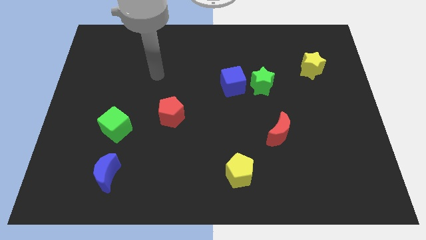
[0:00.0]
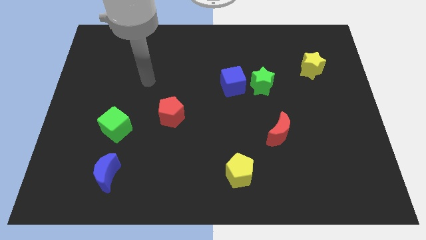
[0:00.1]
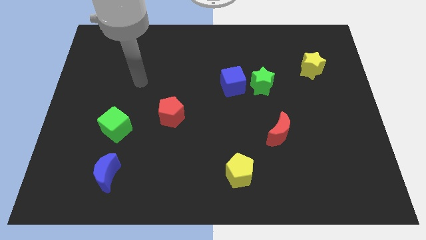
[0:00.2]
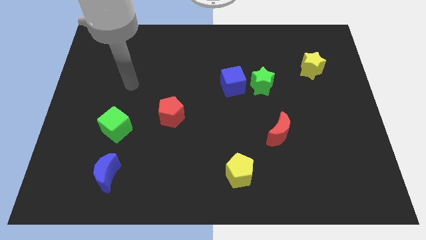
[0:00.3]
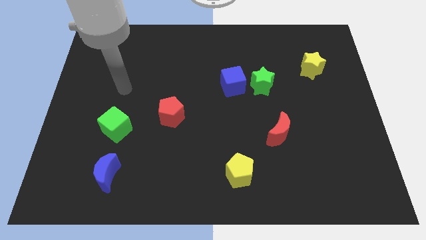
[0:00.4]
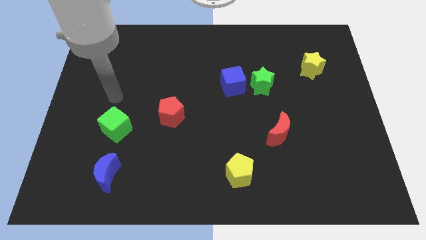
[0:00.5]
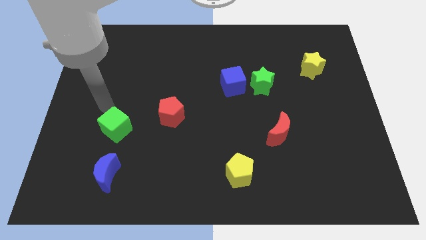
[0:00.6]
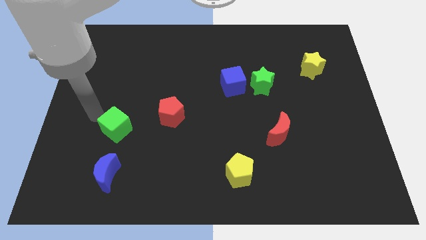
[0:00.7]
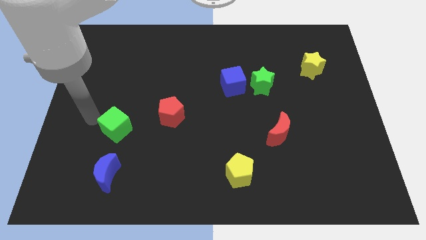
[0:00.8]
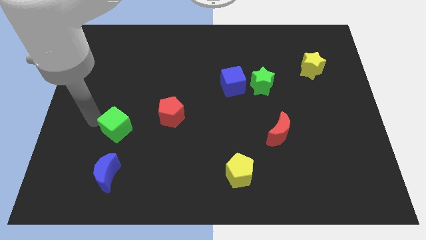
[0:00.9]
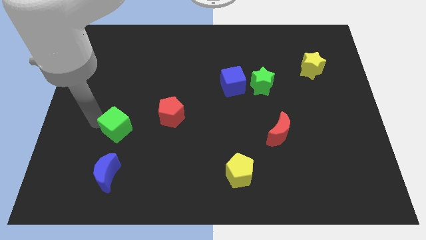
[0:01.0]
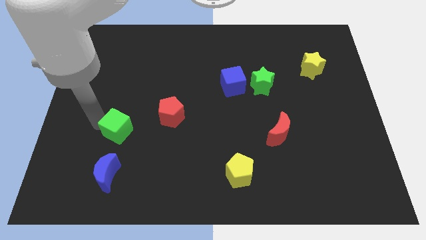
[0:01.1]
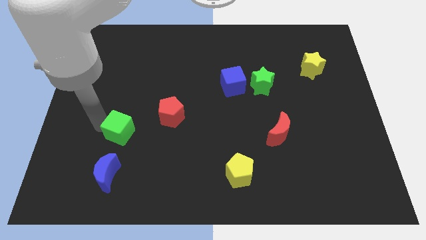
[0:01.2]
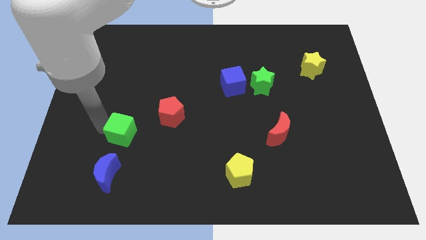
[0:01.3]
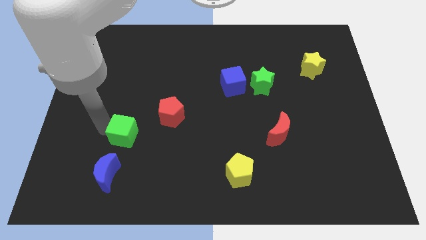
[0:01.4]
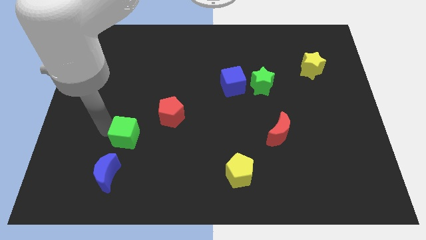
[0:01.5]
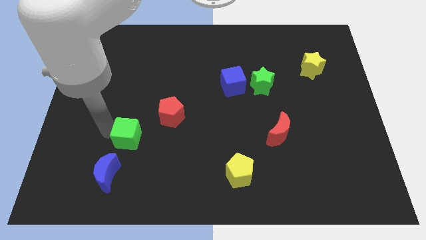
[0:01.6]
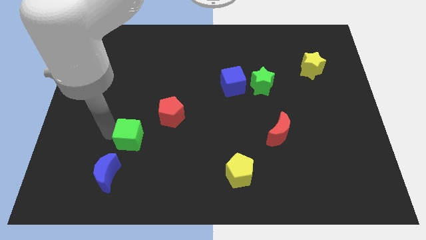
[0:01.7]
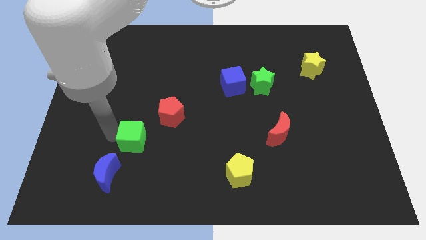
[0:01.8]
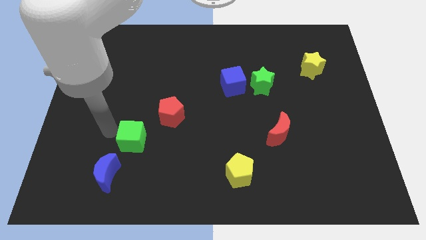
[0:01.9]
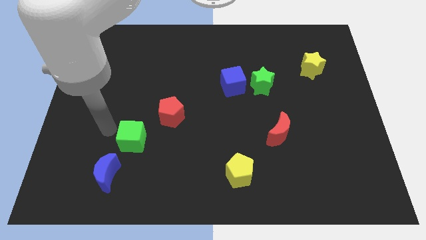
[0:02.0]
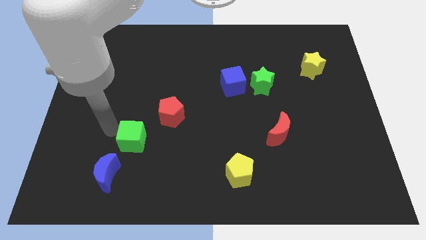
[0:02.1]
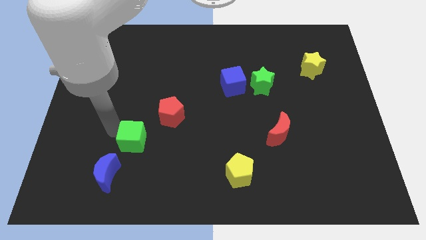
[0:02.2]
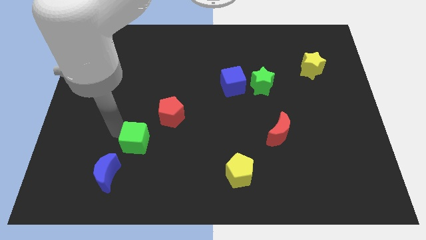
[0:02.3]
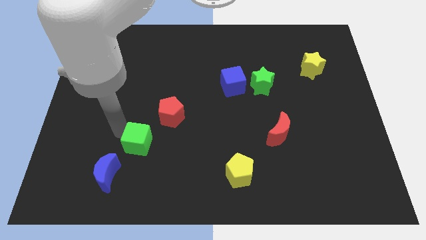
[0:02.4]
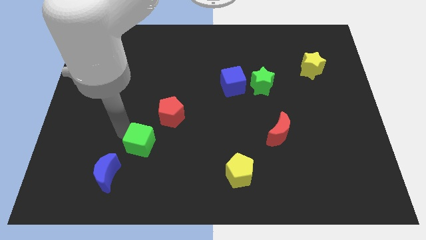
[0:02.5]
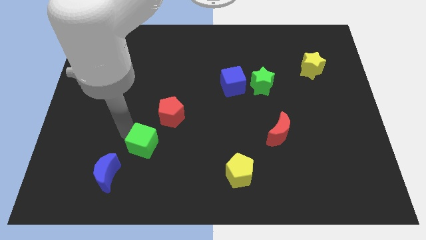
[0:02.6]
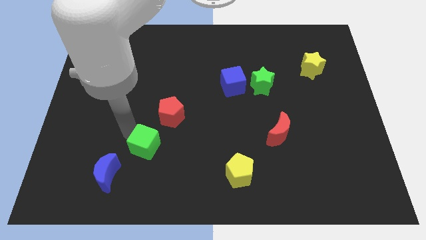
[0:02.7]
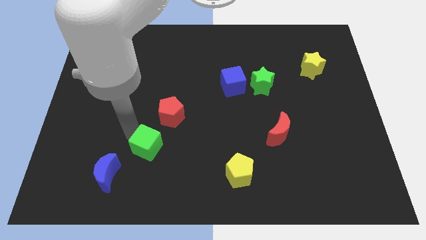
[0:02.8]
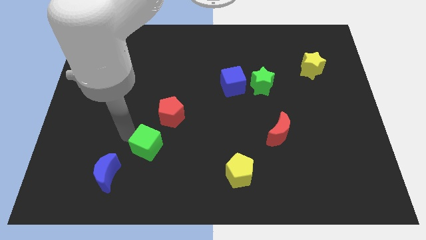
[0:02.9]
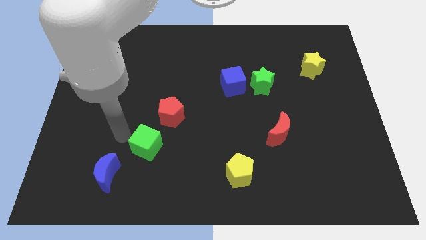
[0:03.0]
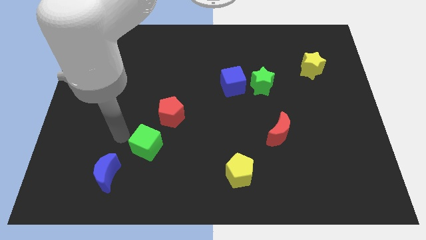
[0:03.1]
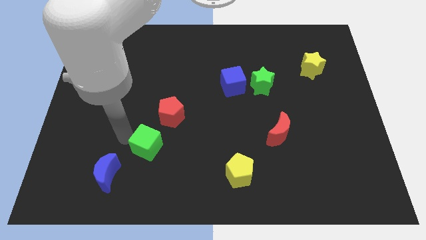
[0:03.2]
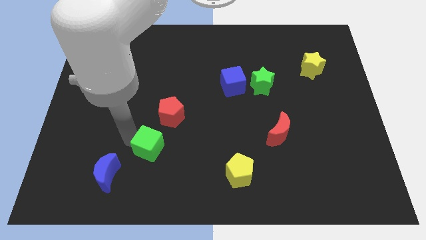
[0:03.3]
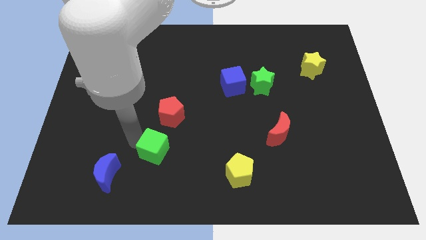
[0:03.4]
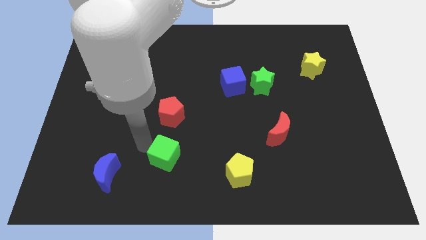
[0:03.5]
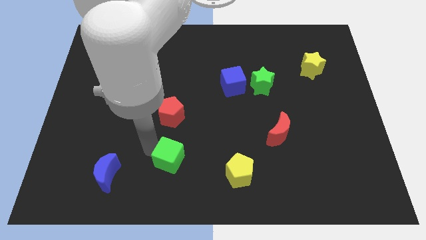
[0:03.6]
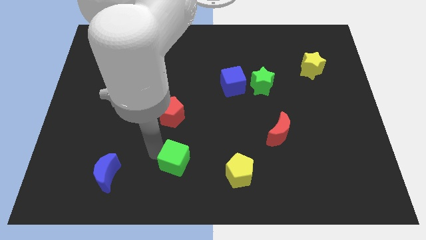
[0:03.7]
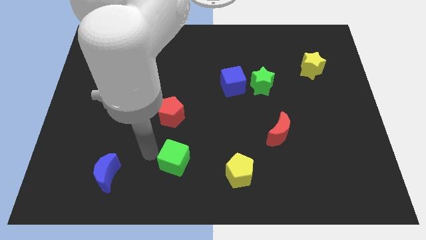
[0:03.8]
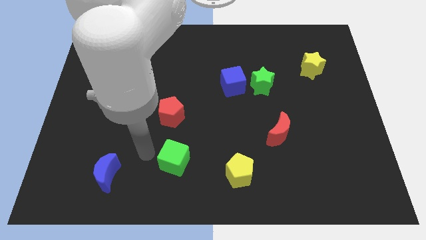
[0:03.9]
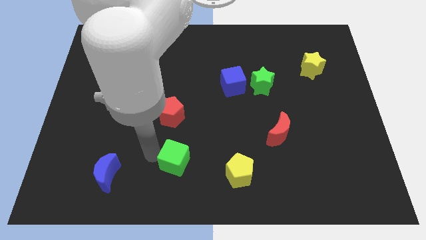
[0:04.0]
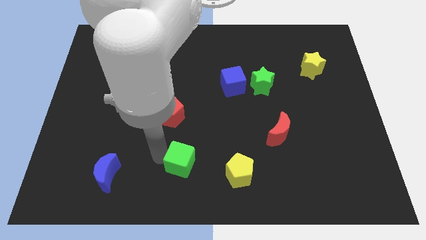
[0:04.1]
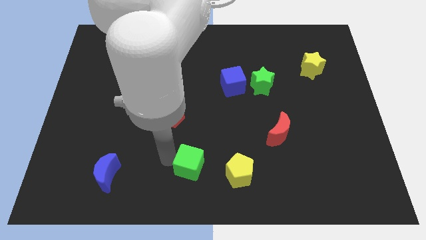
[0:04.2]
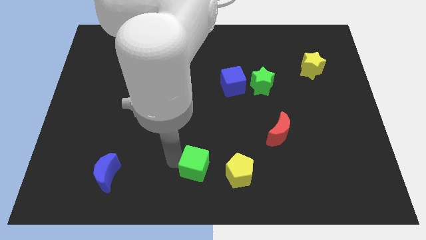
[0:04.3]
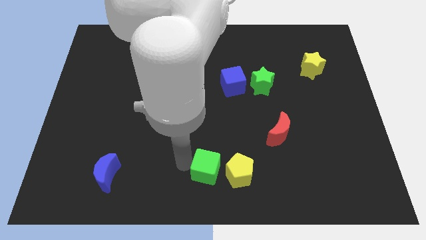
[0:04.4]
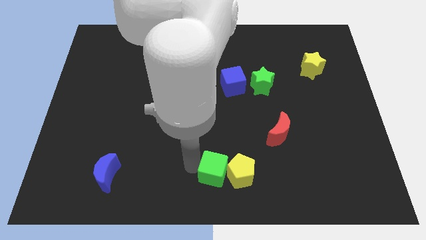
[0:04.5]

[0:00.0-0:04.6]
slide the green cube close to the yellow pentagon

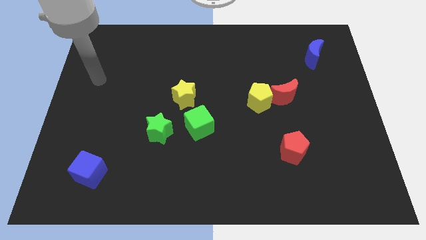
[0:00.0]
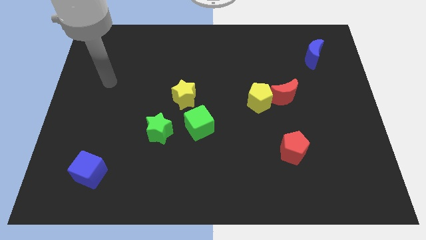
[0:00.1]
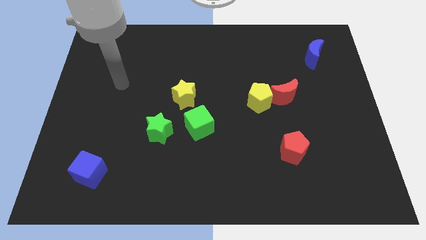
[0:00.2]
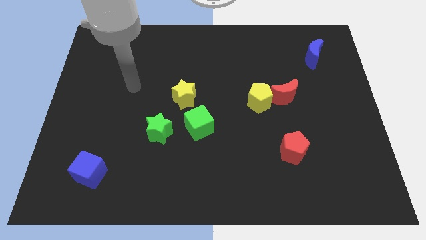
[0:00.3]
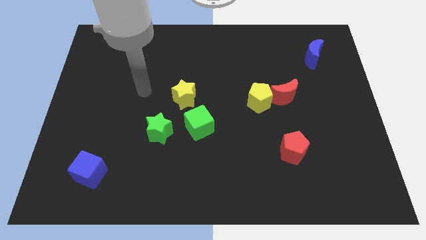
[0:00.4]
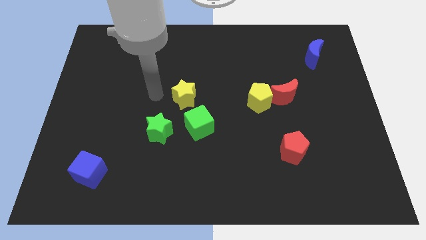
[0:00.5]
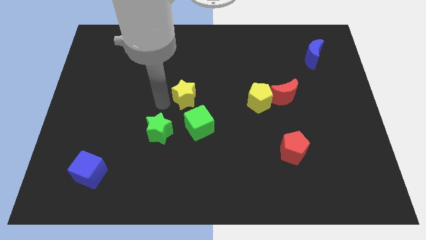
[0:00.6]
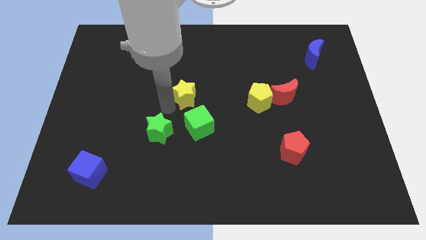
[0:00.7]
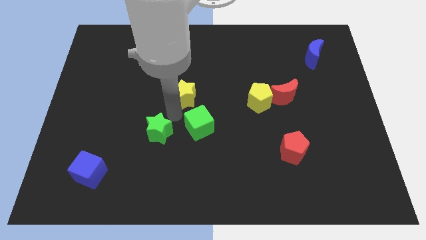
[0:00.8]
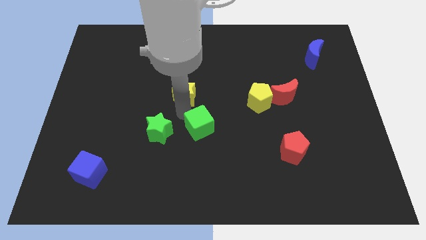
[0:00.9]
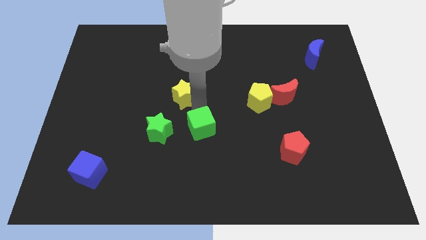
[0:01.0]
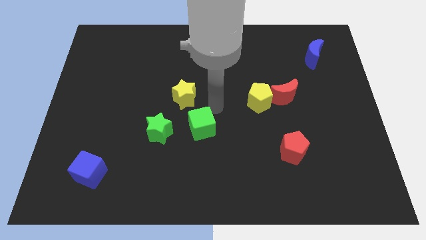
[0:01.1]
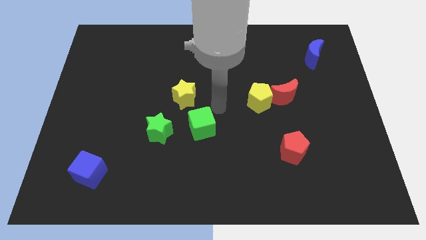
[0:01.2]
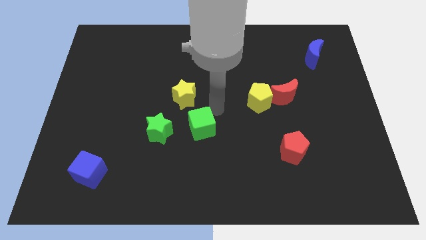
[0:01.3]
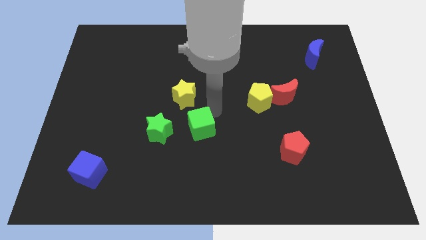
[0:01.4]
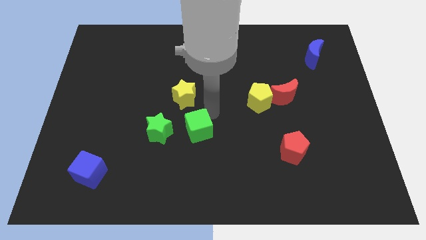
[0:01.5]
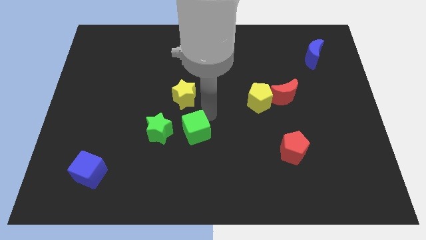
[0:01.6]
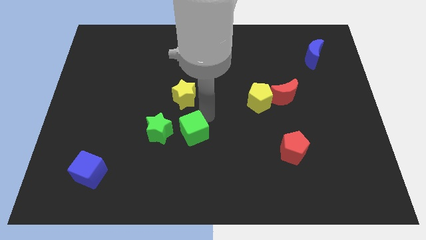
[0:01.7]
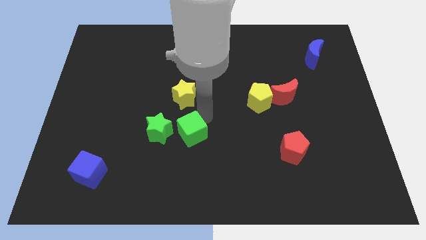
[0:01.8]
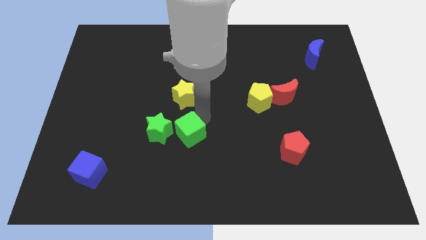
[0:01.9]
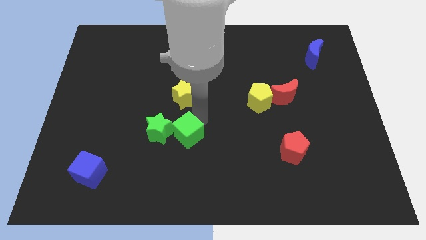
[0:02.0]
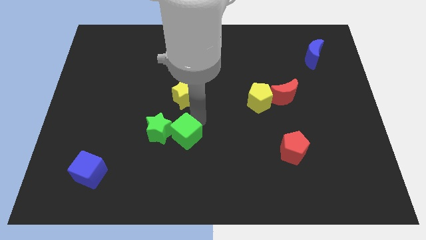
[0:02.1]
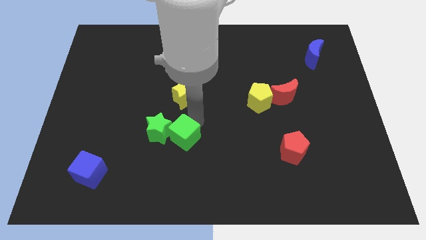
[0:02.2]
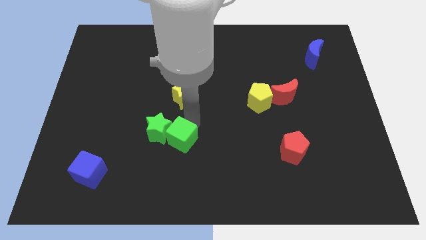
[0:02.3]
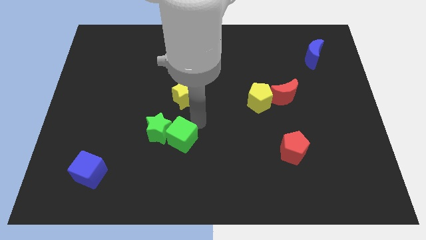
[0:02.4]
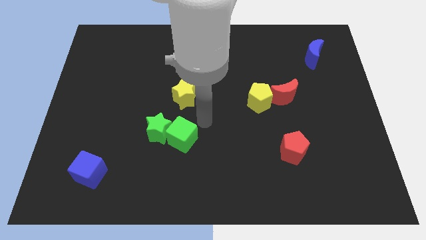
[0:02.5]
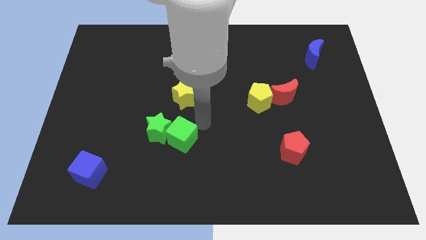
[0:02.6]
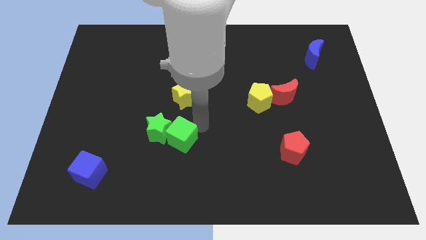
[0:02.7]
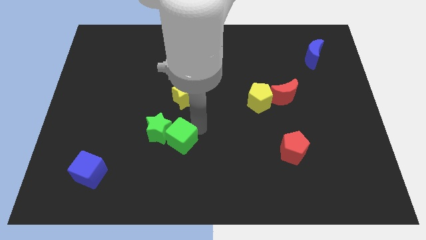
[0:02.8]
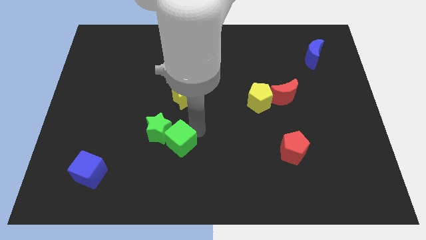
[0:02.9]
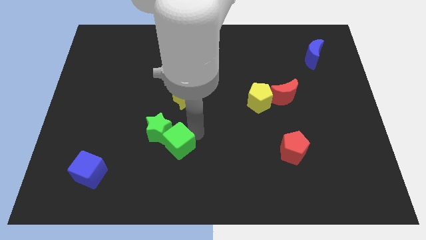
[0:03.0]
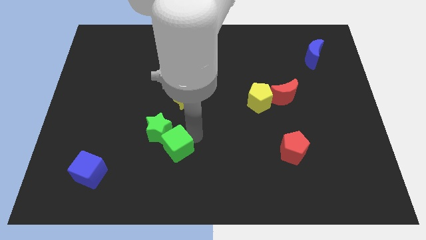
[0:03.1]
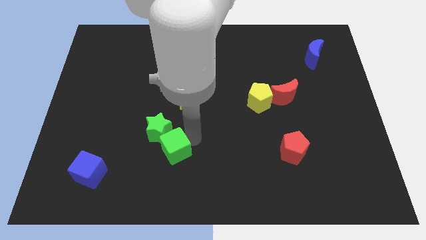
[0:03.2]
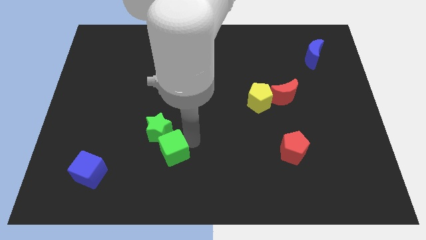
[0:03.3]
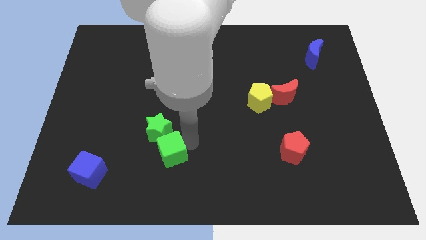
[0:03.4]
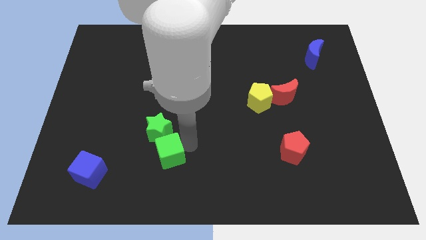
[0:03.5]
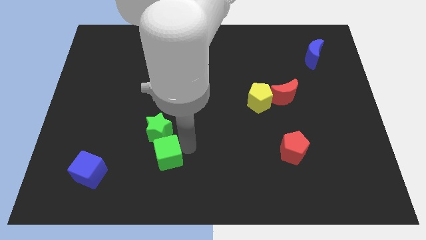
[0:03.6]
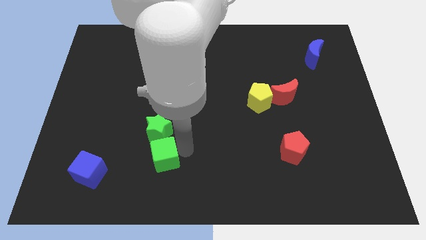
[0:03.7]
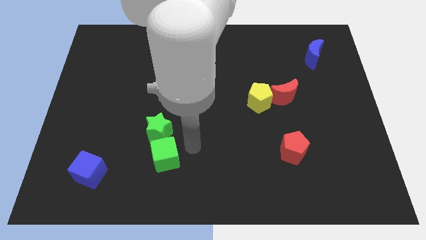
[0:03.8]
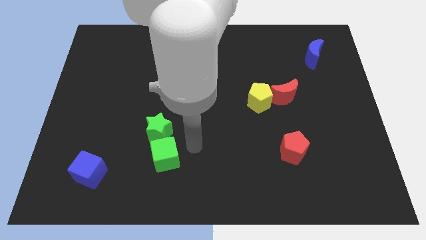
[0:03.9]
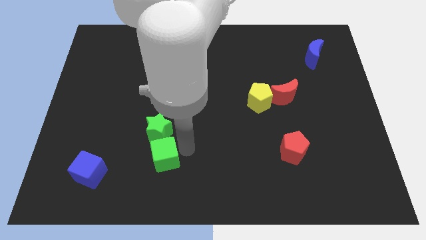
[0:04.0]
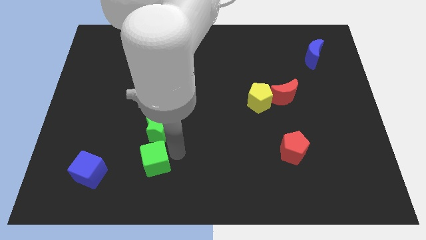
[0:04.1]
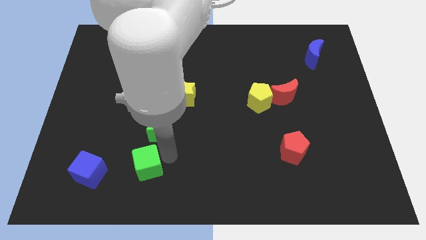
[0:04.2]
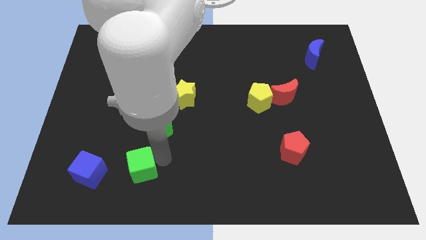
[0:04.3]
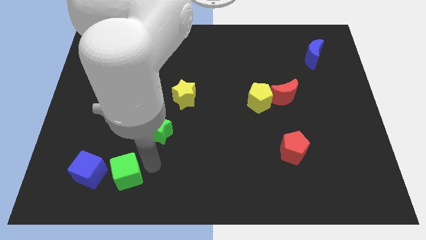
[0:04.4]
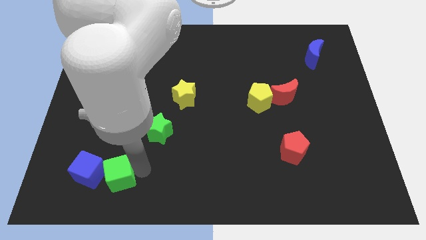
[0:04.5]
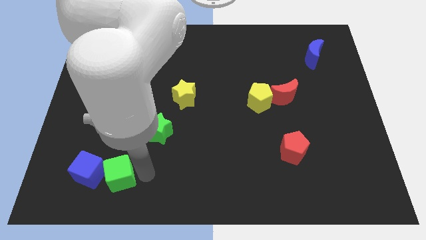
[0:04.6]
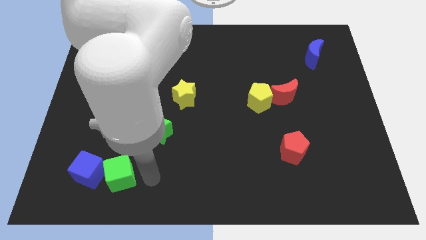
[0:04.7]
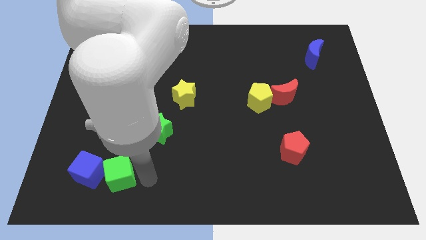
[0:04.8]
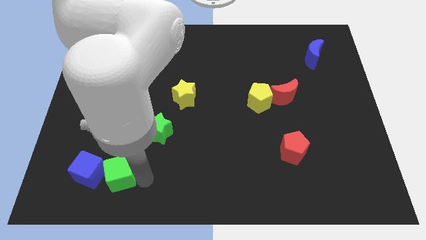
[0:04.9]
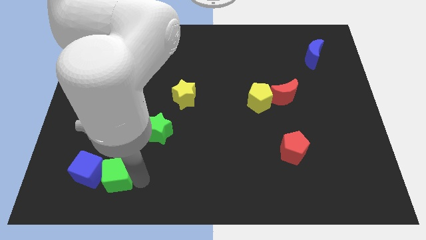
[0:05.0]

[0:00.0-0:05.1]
slide the green cube close to the blue cube
